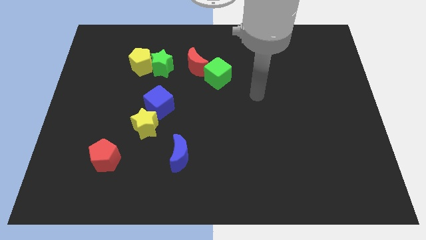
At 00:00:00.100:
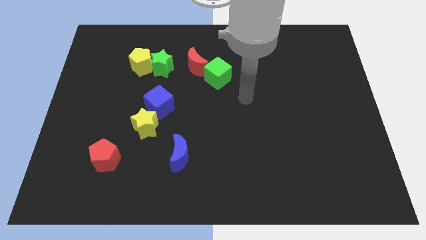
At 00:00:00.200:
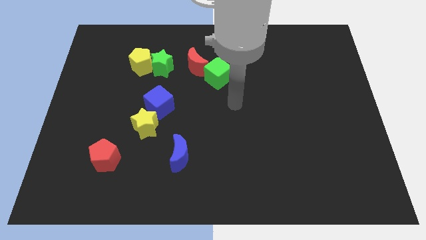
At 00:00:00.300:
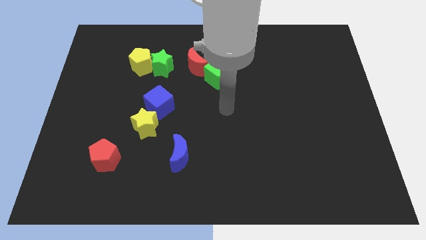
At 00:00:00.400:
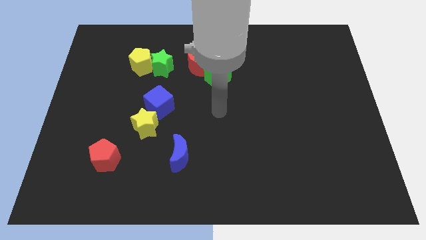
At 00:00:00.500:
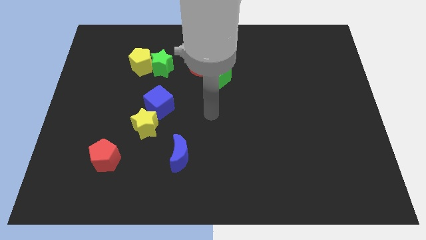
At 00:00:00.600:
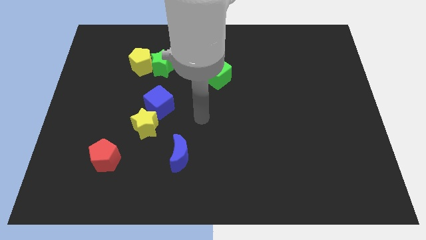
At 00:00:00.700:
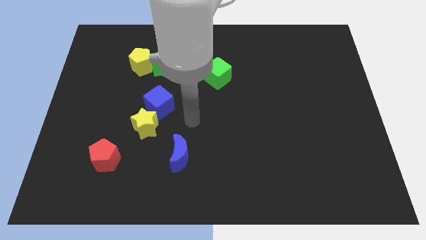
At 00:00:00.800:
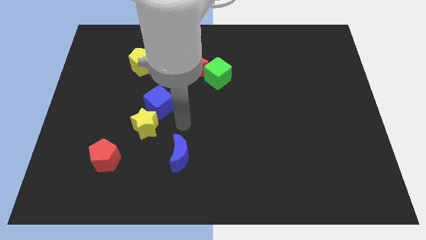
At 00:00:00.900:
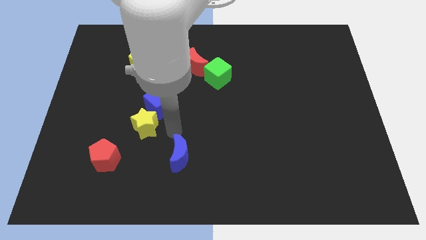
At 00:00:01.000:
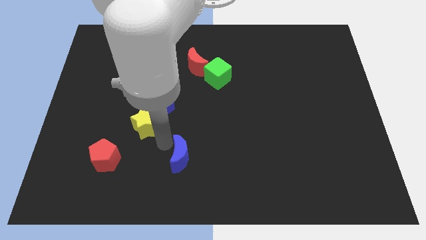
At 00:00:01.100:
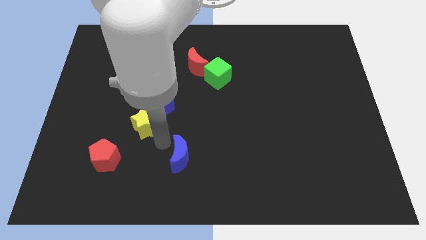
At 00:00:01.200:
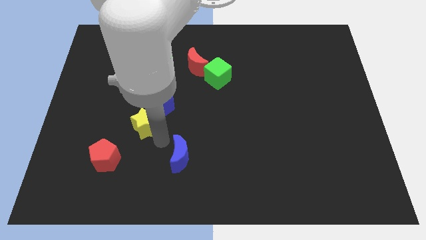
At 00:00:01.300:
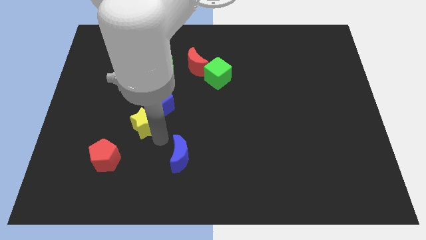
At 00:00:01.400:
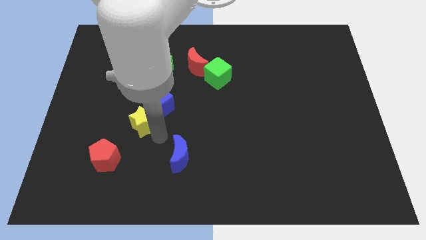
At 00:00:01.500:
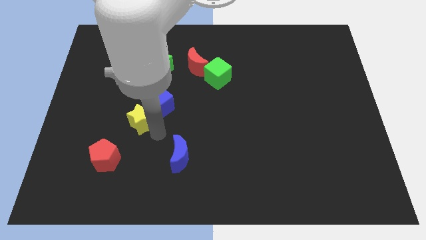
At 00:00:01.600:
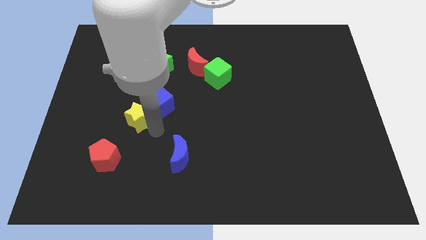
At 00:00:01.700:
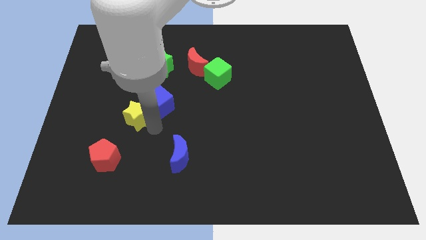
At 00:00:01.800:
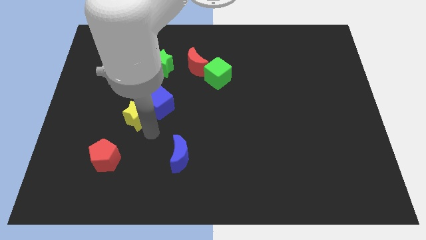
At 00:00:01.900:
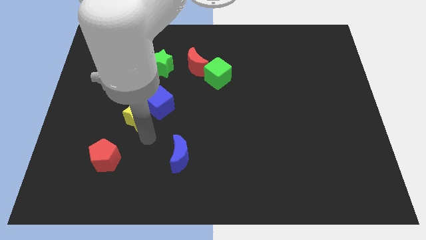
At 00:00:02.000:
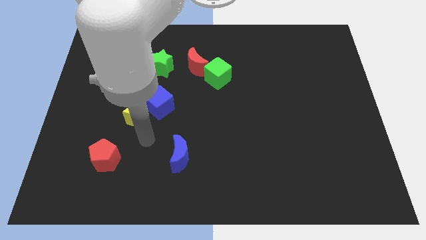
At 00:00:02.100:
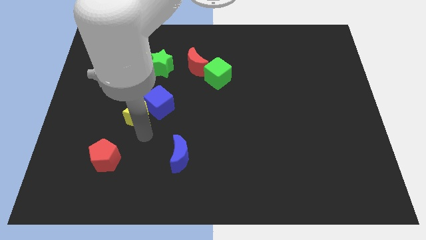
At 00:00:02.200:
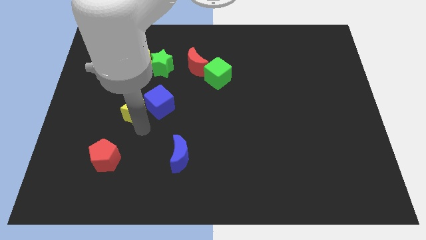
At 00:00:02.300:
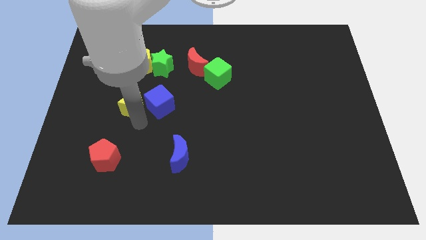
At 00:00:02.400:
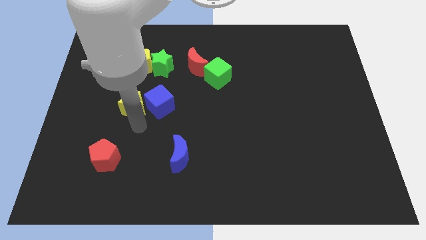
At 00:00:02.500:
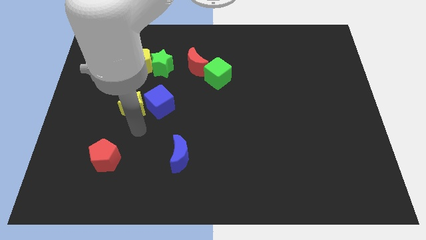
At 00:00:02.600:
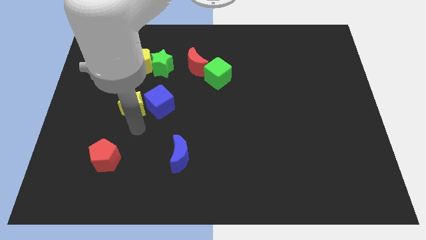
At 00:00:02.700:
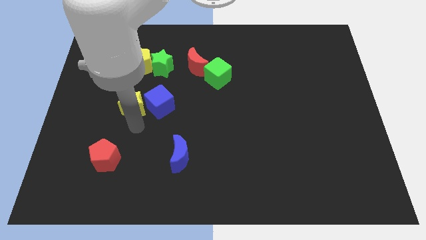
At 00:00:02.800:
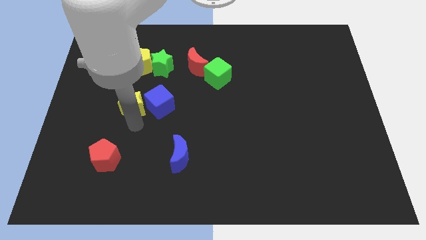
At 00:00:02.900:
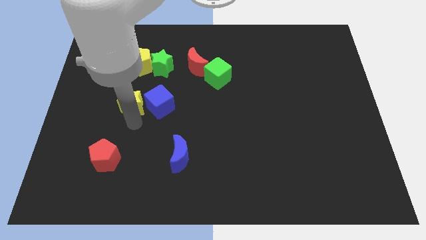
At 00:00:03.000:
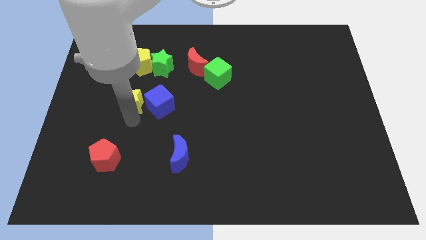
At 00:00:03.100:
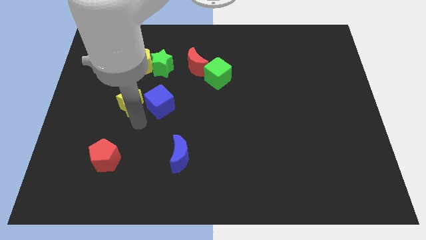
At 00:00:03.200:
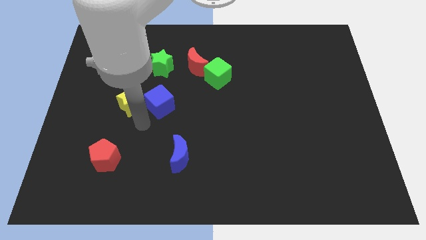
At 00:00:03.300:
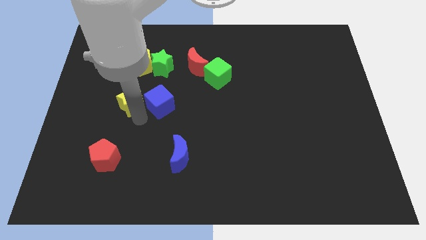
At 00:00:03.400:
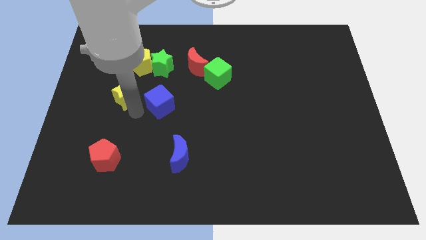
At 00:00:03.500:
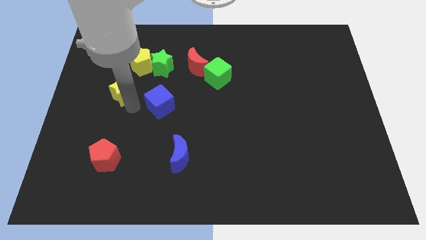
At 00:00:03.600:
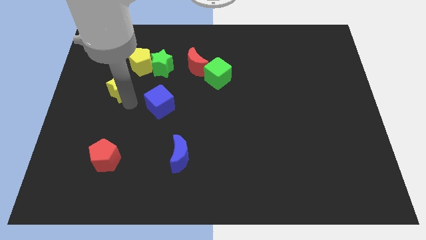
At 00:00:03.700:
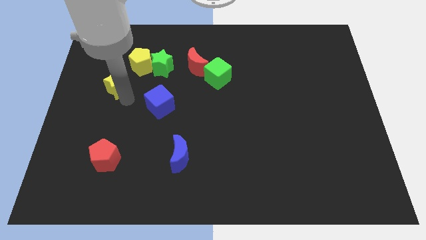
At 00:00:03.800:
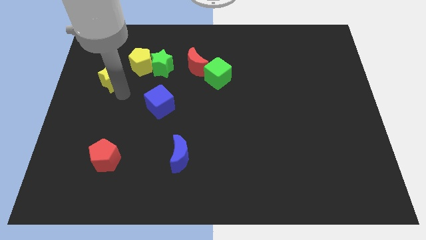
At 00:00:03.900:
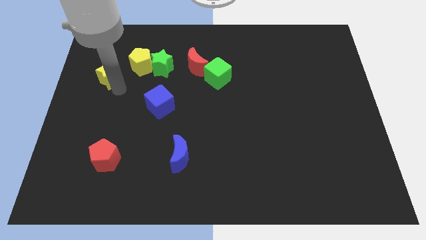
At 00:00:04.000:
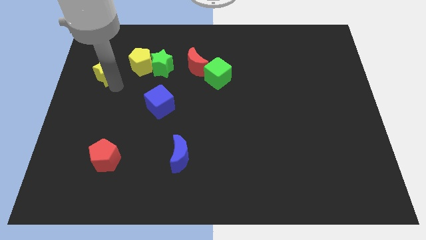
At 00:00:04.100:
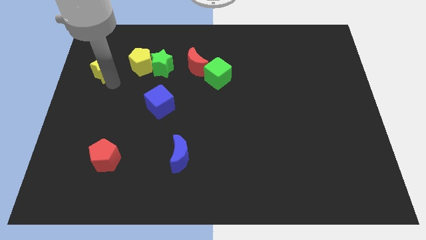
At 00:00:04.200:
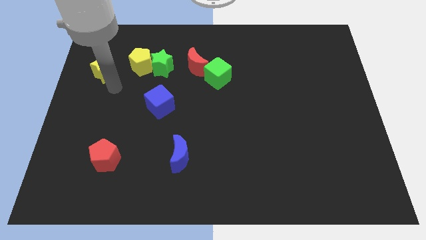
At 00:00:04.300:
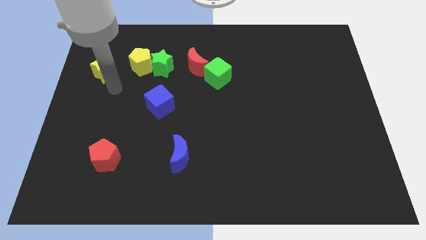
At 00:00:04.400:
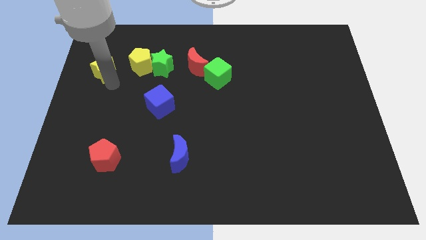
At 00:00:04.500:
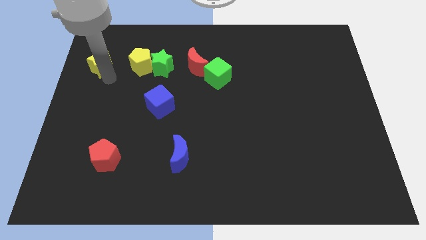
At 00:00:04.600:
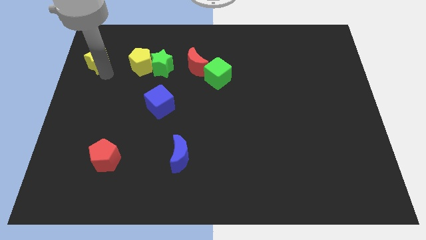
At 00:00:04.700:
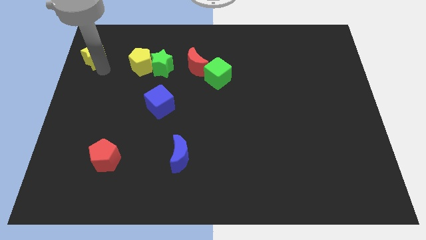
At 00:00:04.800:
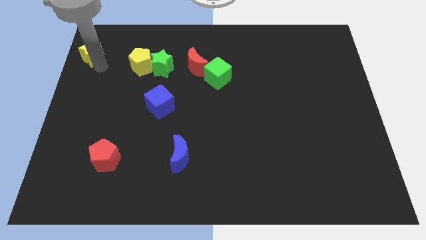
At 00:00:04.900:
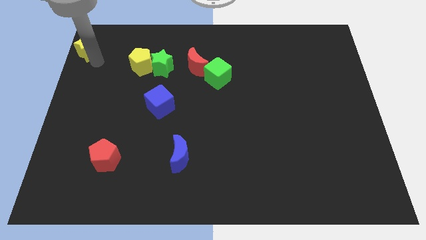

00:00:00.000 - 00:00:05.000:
put the yellow star to the upper left corner

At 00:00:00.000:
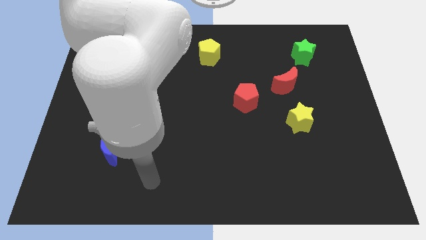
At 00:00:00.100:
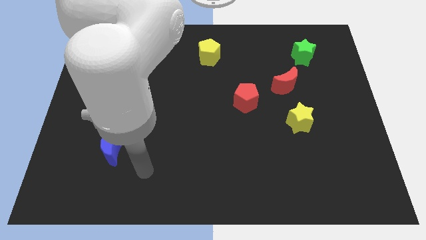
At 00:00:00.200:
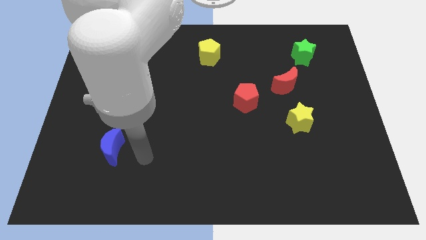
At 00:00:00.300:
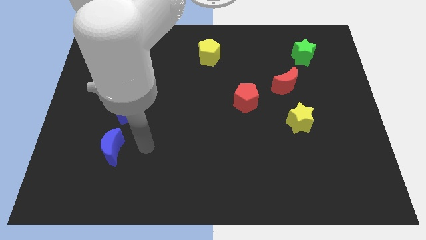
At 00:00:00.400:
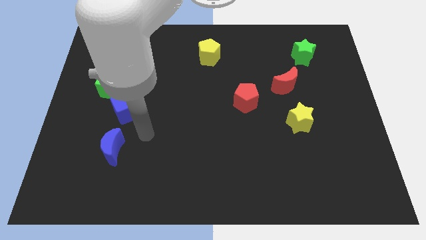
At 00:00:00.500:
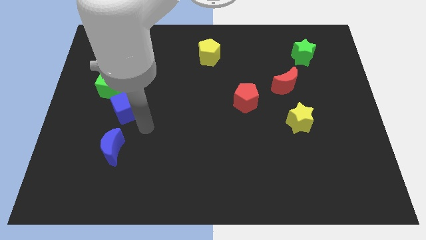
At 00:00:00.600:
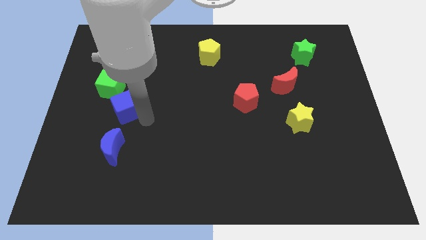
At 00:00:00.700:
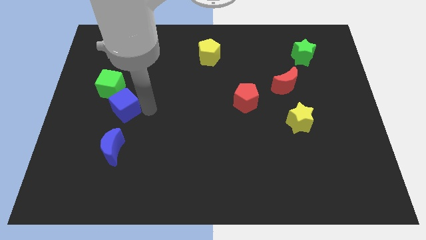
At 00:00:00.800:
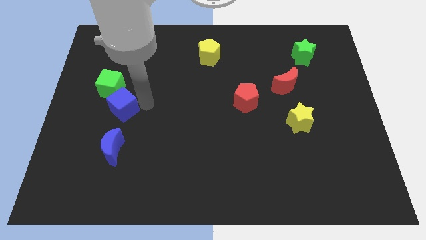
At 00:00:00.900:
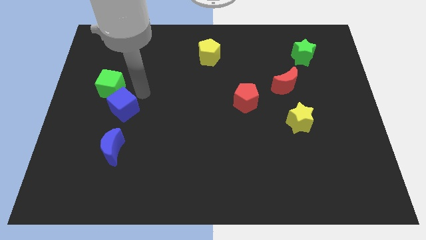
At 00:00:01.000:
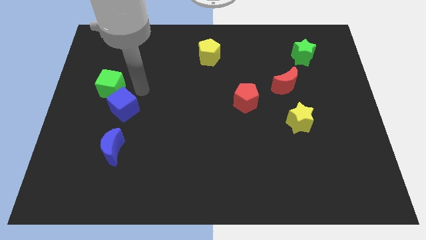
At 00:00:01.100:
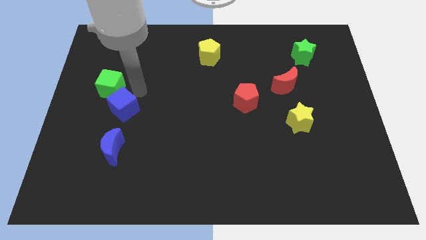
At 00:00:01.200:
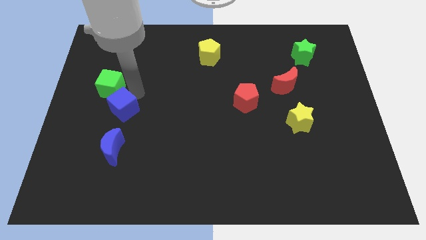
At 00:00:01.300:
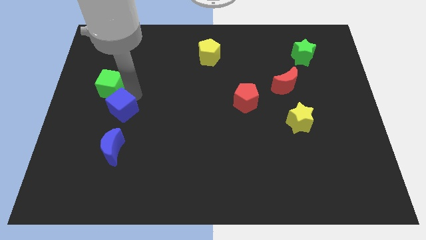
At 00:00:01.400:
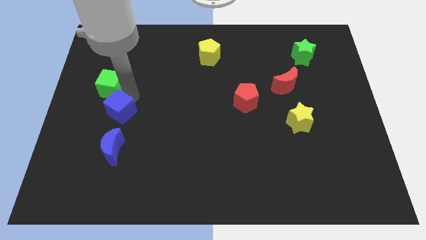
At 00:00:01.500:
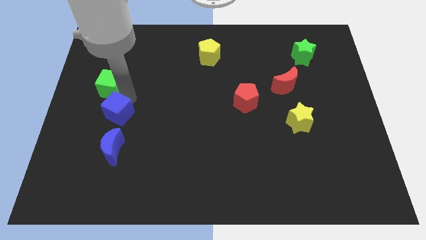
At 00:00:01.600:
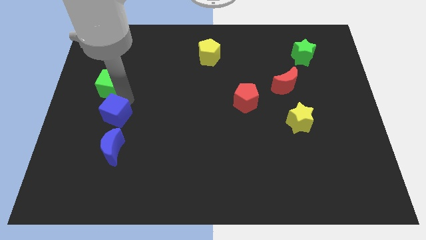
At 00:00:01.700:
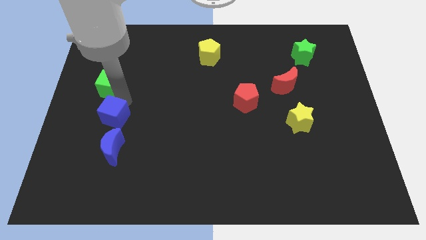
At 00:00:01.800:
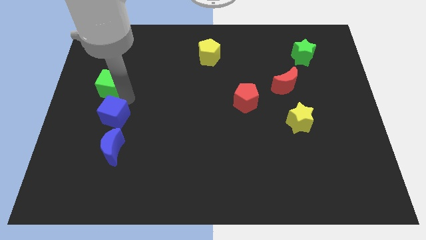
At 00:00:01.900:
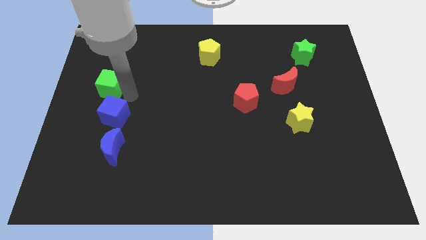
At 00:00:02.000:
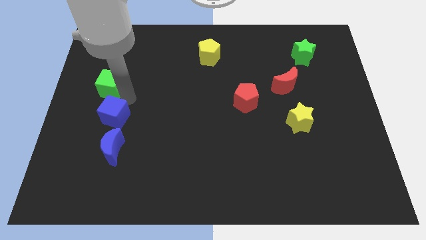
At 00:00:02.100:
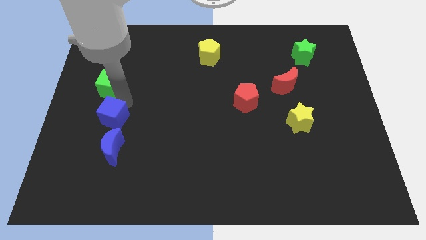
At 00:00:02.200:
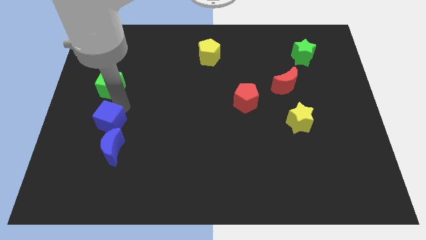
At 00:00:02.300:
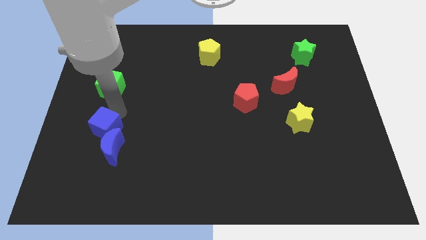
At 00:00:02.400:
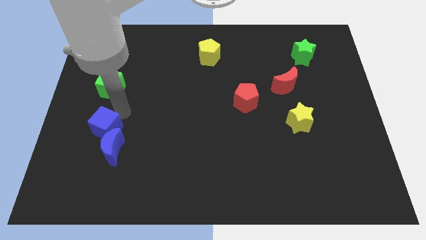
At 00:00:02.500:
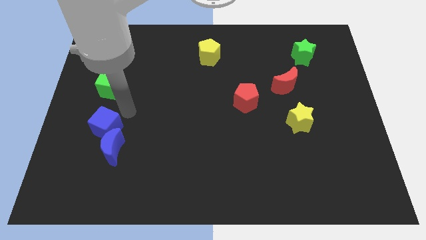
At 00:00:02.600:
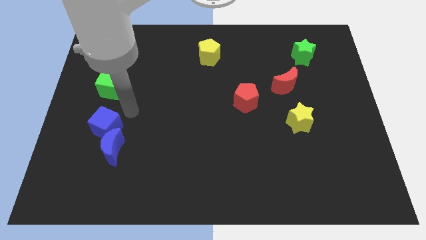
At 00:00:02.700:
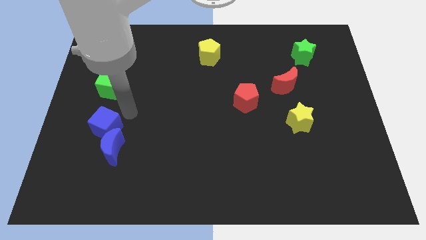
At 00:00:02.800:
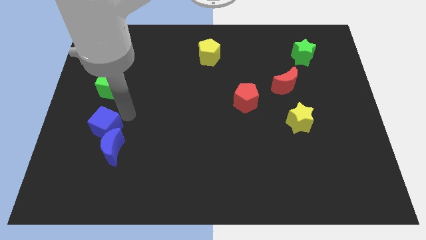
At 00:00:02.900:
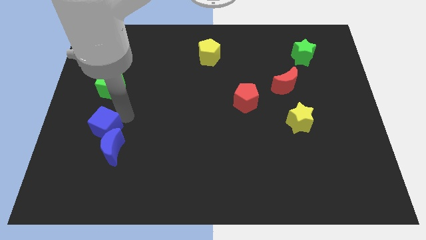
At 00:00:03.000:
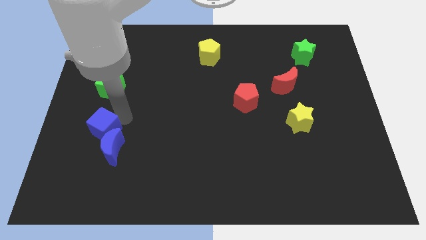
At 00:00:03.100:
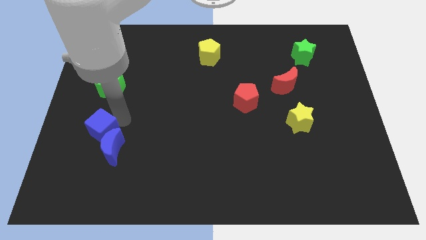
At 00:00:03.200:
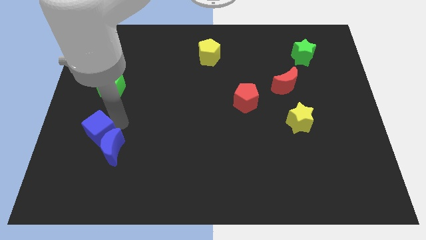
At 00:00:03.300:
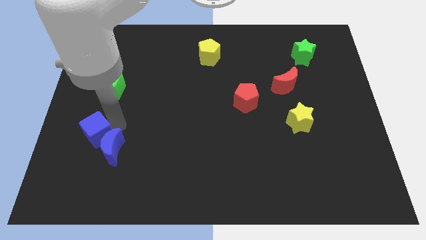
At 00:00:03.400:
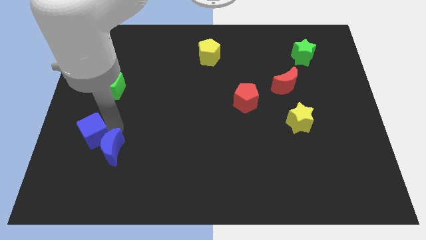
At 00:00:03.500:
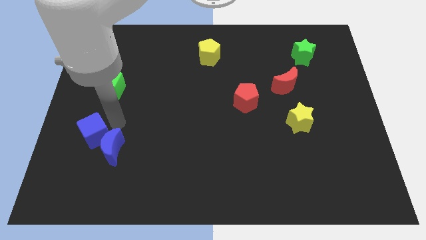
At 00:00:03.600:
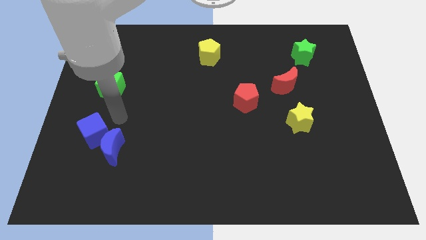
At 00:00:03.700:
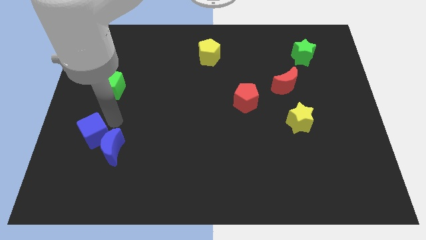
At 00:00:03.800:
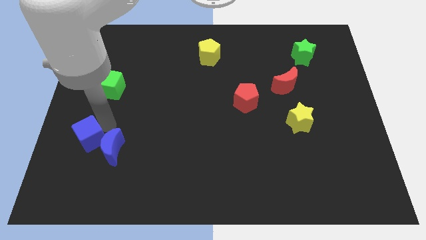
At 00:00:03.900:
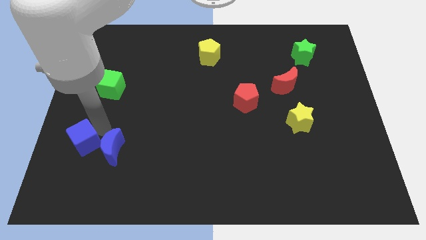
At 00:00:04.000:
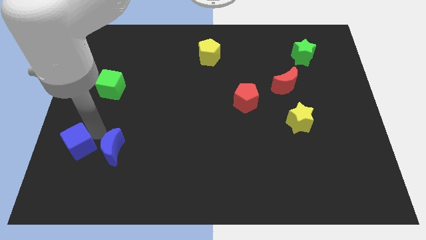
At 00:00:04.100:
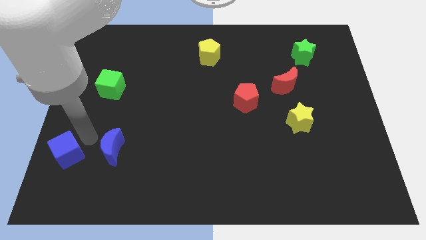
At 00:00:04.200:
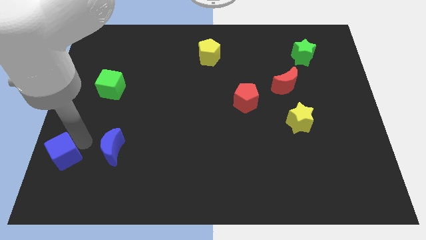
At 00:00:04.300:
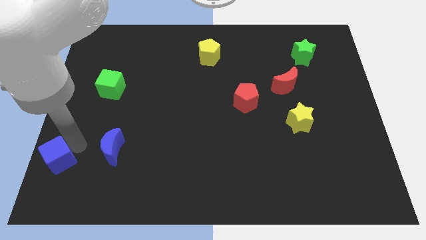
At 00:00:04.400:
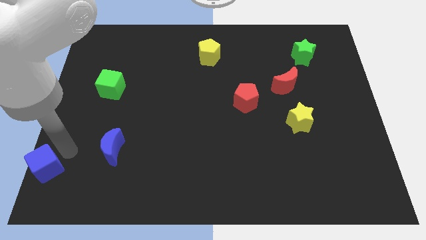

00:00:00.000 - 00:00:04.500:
move the blue cube to the lower left corner
